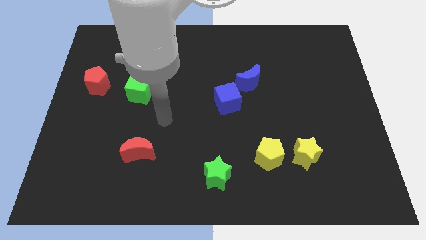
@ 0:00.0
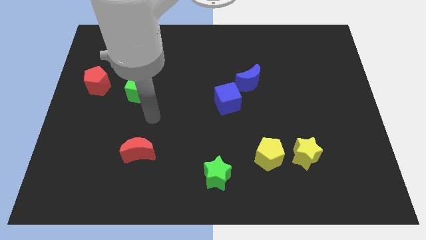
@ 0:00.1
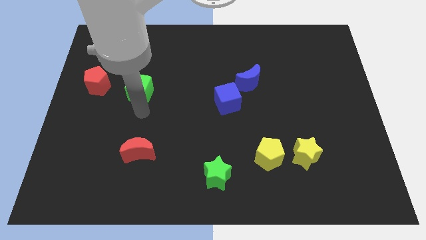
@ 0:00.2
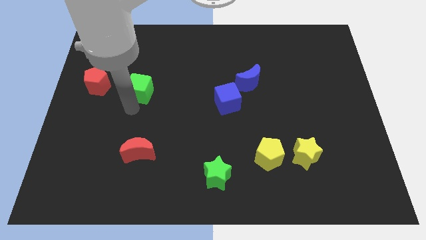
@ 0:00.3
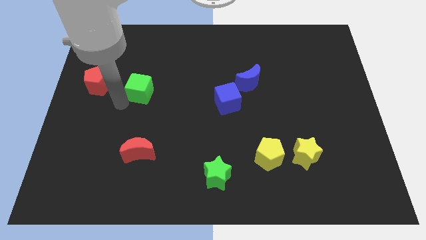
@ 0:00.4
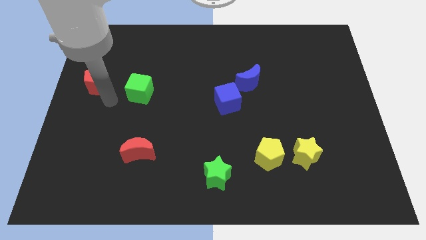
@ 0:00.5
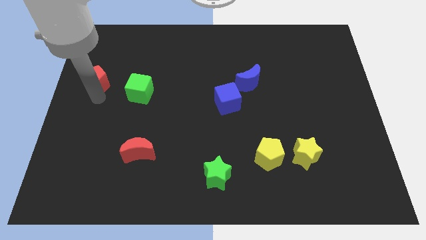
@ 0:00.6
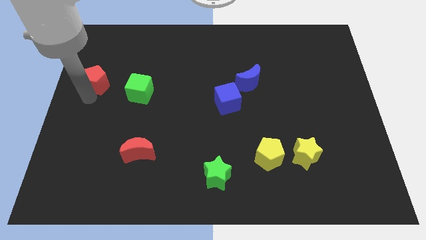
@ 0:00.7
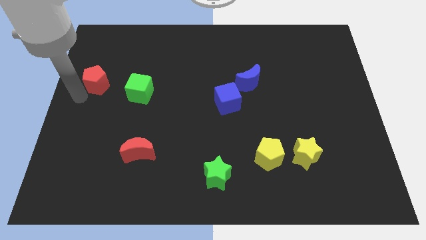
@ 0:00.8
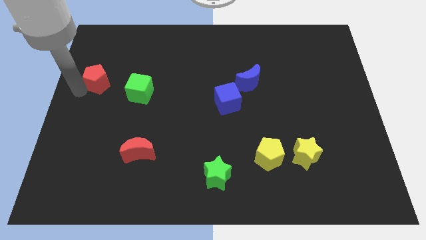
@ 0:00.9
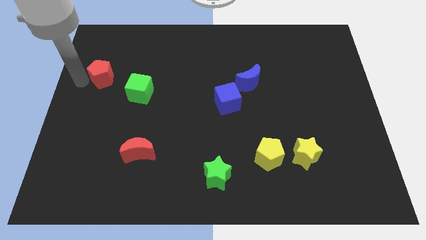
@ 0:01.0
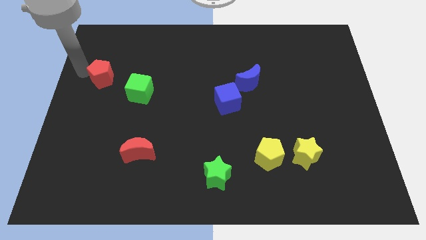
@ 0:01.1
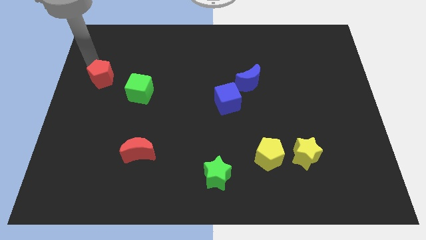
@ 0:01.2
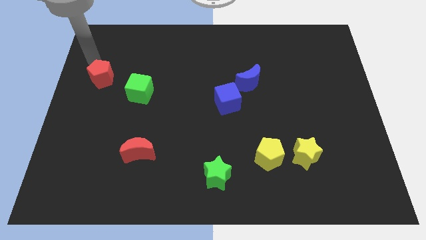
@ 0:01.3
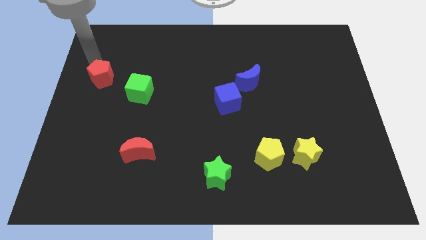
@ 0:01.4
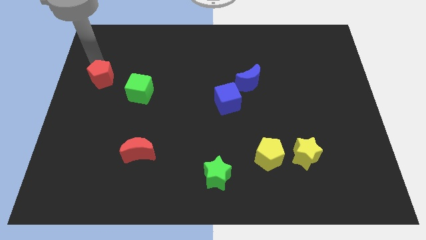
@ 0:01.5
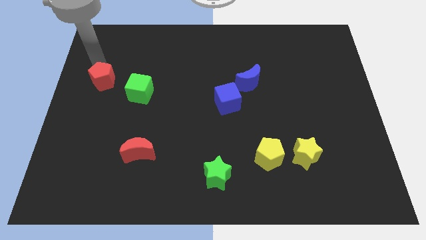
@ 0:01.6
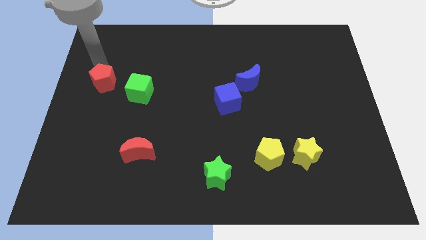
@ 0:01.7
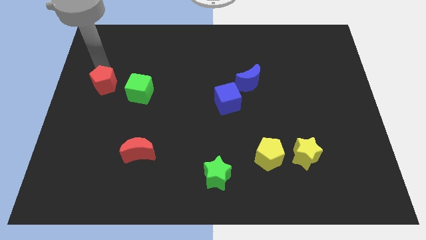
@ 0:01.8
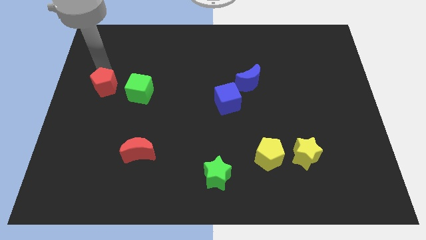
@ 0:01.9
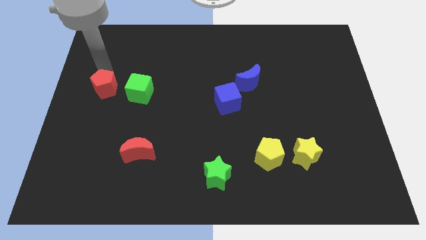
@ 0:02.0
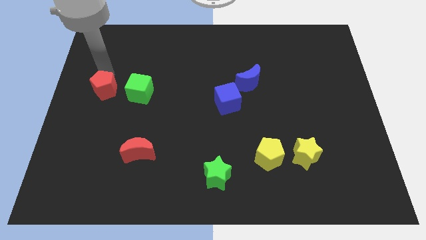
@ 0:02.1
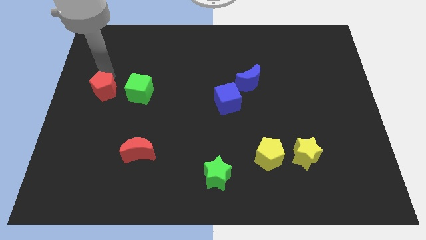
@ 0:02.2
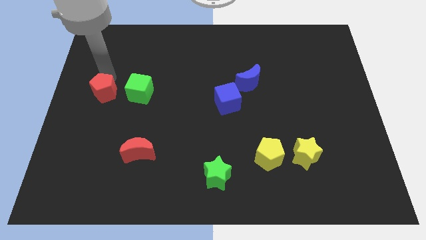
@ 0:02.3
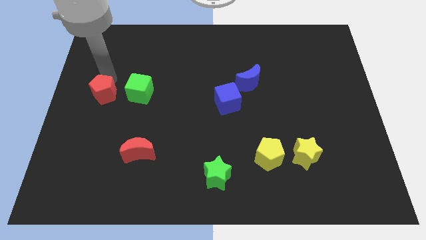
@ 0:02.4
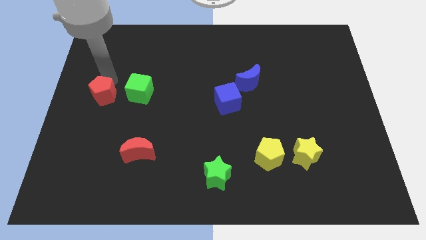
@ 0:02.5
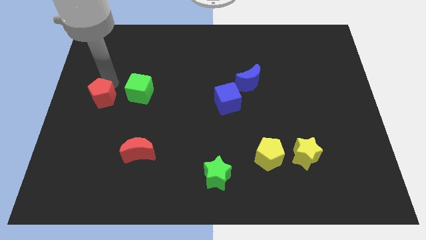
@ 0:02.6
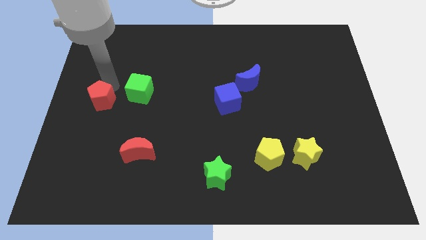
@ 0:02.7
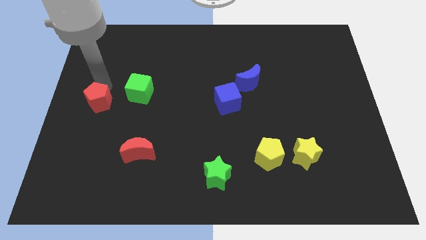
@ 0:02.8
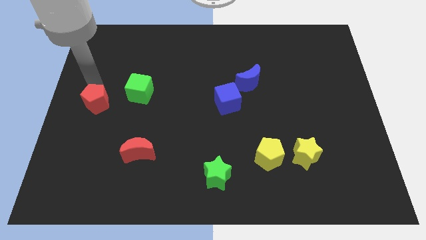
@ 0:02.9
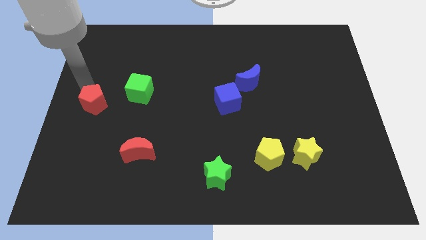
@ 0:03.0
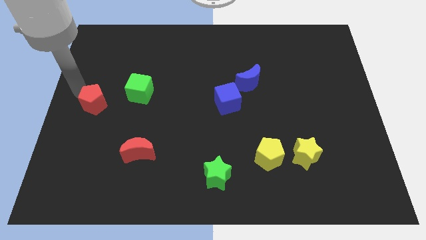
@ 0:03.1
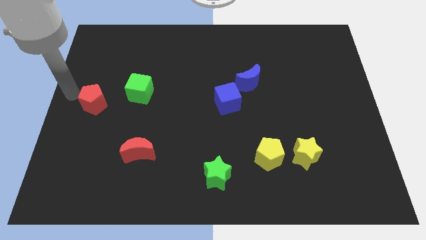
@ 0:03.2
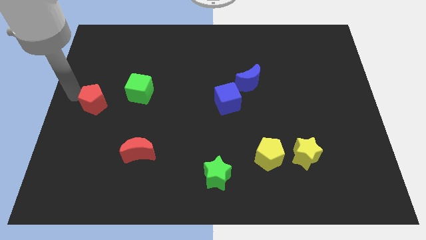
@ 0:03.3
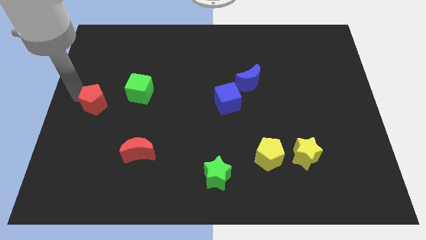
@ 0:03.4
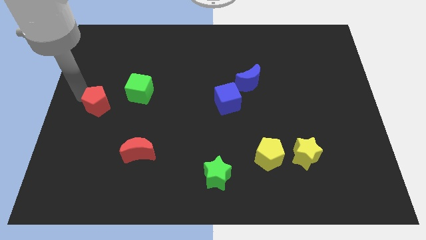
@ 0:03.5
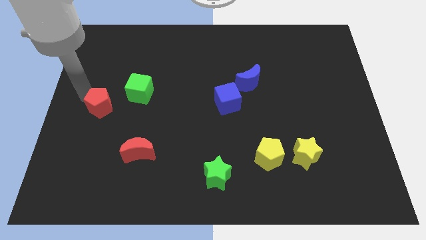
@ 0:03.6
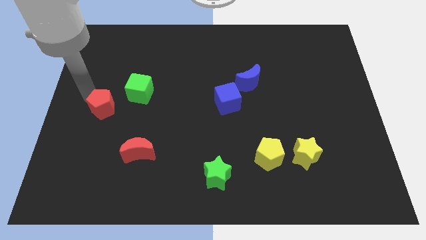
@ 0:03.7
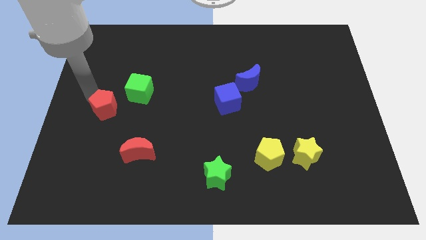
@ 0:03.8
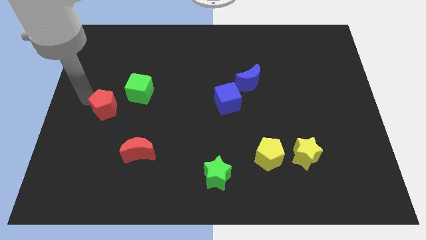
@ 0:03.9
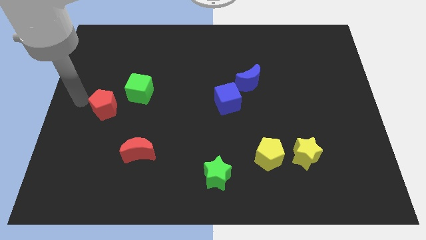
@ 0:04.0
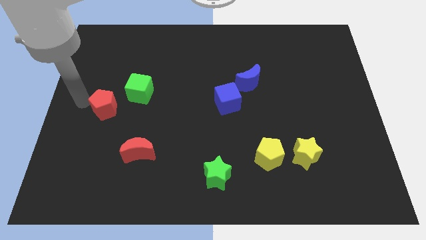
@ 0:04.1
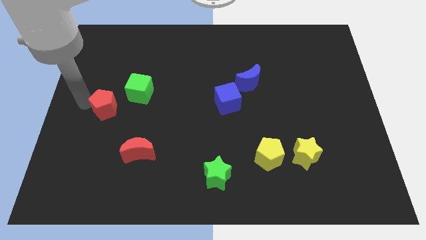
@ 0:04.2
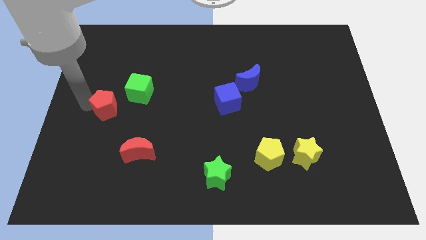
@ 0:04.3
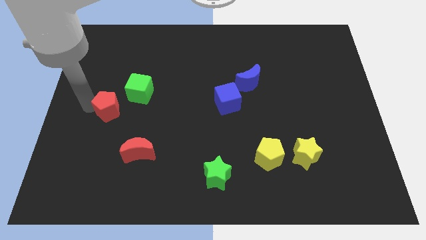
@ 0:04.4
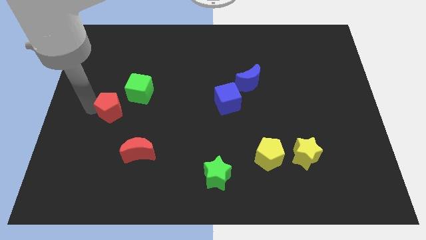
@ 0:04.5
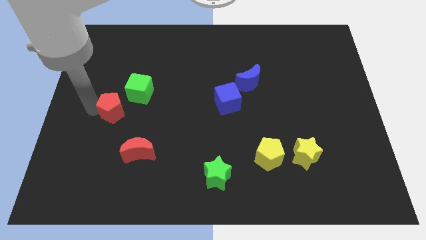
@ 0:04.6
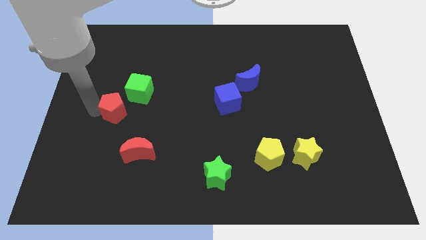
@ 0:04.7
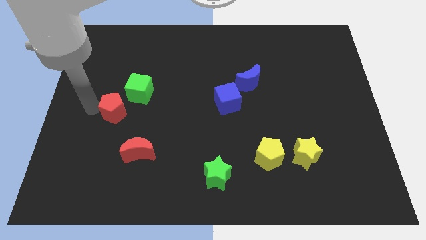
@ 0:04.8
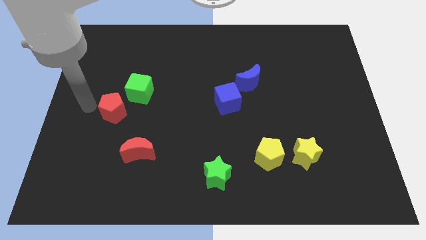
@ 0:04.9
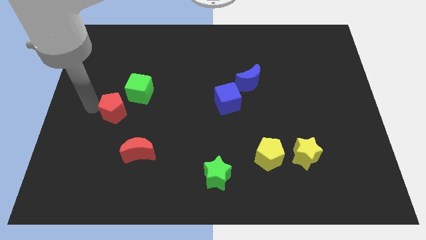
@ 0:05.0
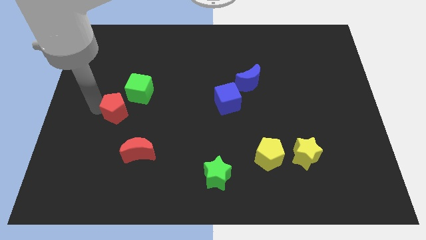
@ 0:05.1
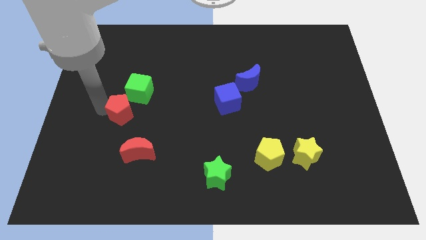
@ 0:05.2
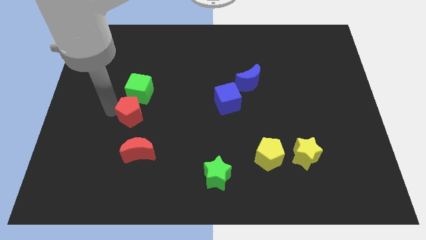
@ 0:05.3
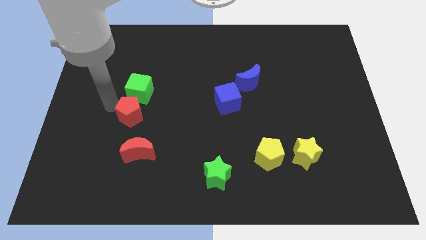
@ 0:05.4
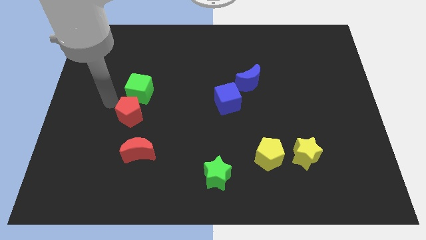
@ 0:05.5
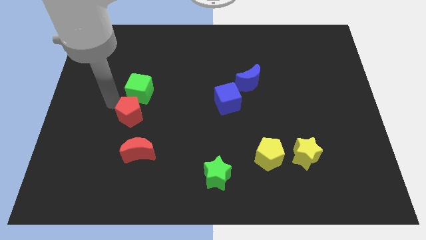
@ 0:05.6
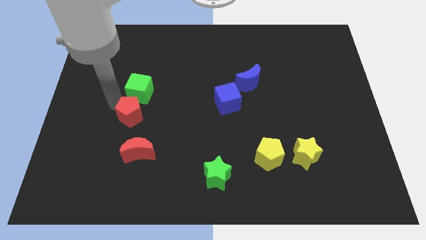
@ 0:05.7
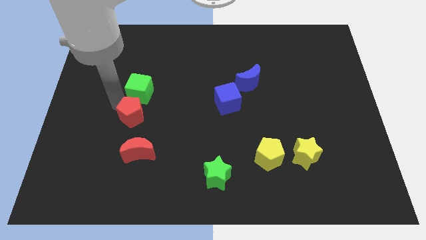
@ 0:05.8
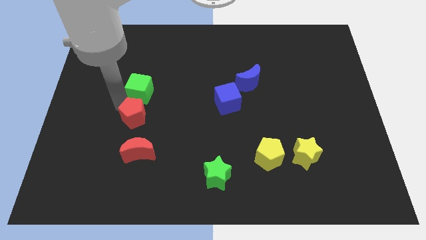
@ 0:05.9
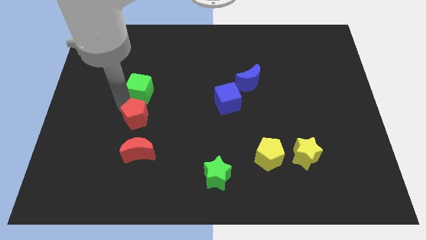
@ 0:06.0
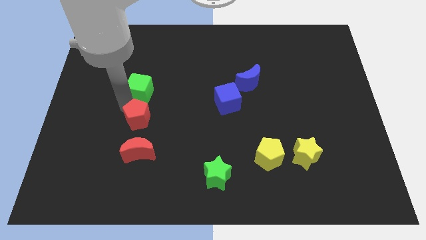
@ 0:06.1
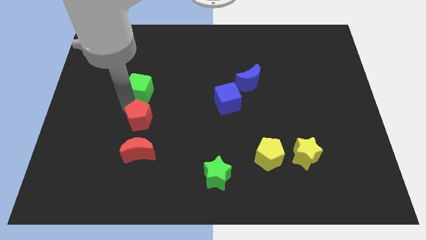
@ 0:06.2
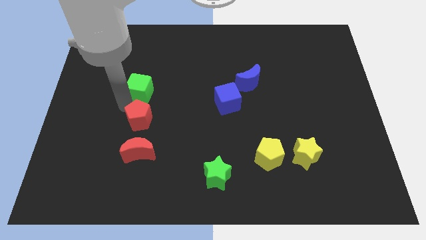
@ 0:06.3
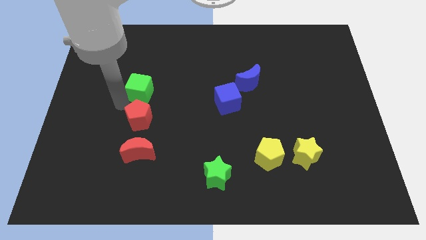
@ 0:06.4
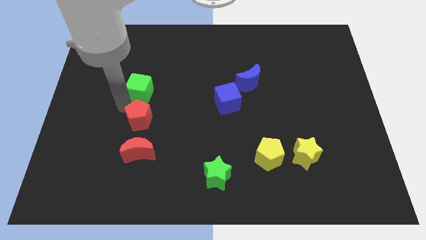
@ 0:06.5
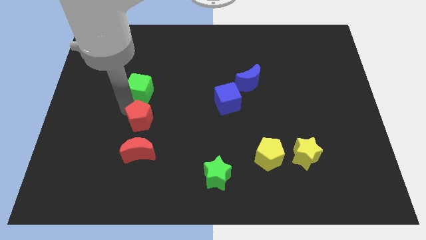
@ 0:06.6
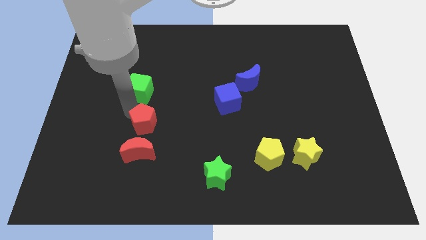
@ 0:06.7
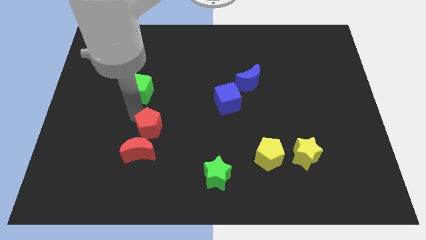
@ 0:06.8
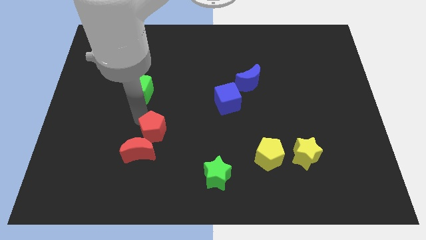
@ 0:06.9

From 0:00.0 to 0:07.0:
slide the red pentagon downwards and then to the right

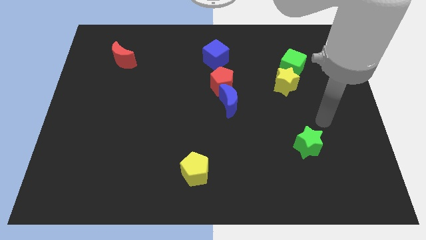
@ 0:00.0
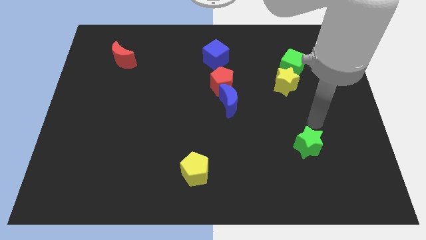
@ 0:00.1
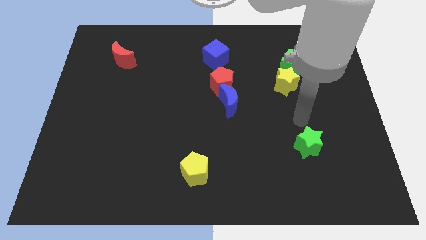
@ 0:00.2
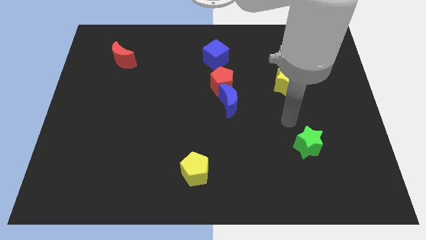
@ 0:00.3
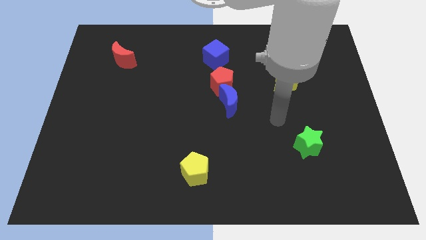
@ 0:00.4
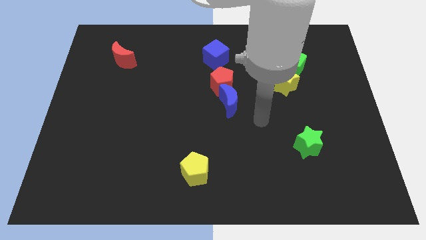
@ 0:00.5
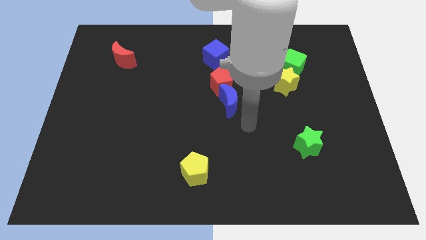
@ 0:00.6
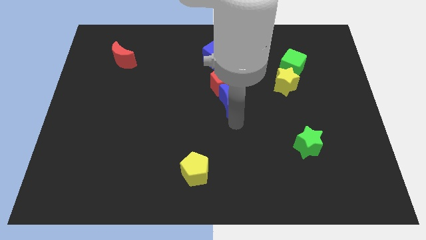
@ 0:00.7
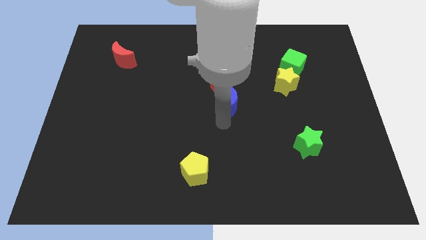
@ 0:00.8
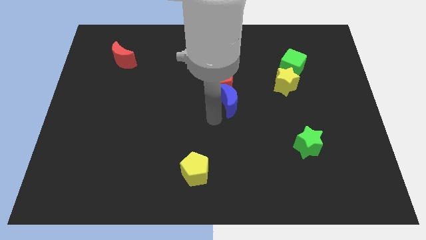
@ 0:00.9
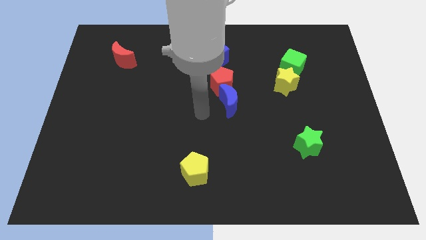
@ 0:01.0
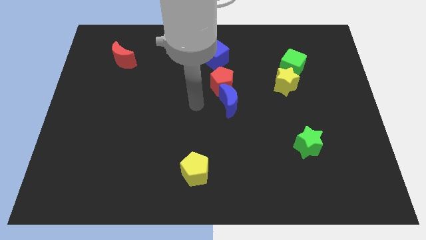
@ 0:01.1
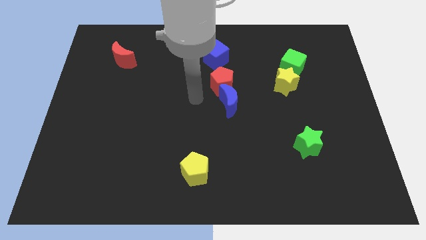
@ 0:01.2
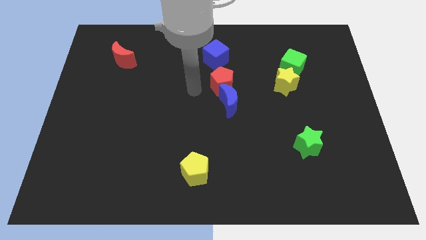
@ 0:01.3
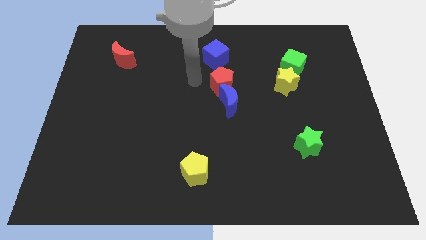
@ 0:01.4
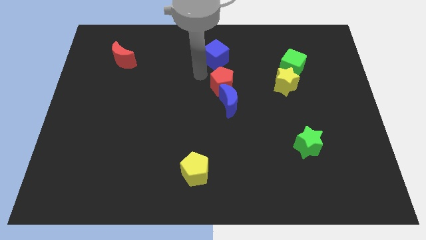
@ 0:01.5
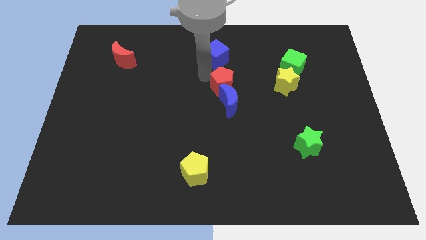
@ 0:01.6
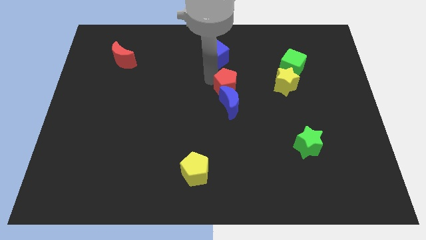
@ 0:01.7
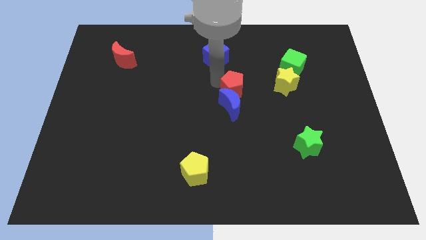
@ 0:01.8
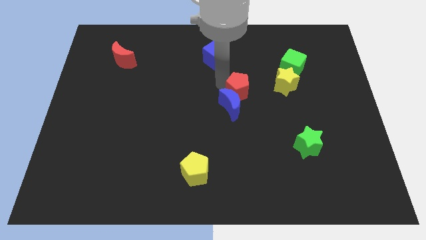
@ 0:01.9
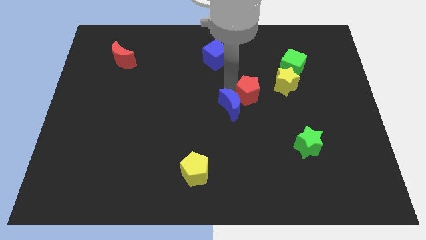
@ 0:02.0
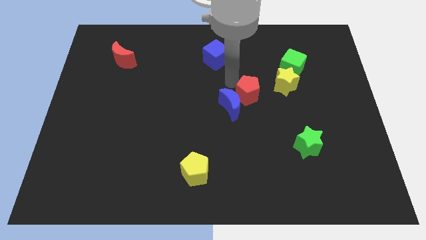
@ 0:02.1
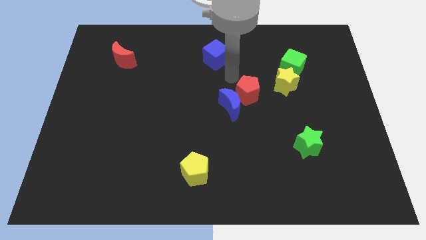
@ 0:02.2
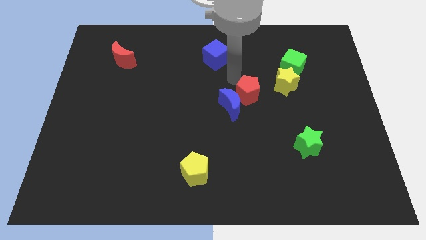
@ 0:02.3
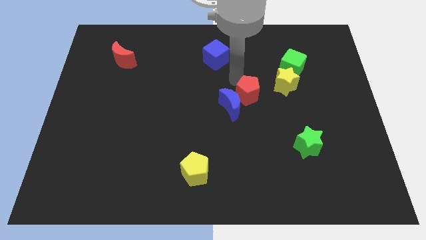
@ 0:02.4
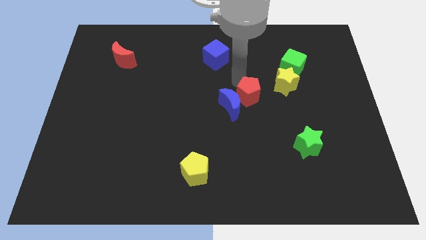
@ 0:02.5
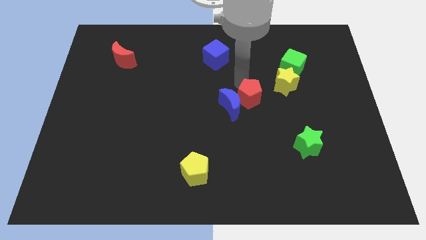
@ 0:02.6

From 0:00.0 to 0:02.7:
slide the red pentagon downwards and then right a little bit
